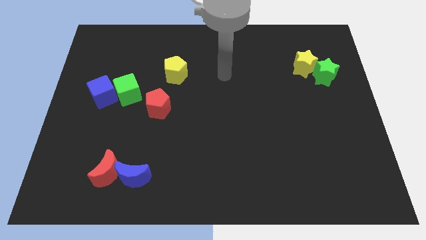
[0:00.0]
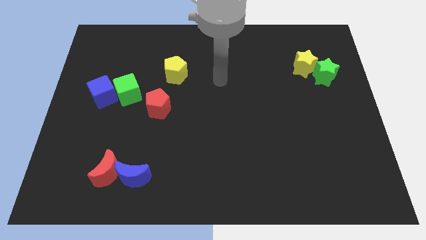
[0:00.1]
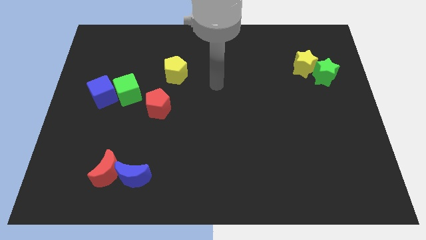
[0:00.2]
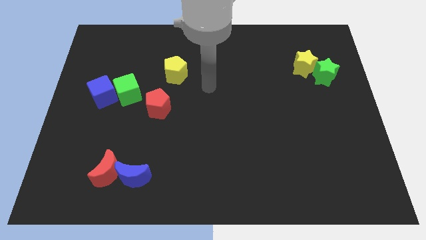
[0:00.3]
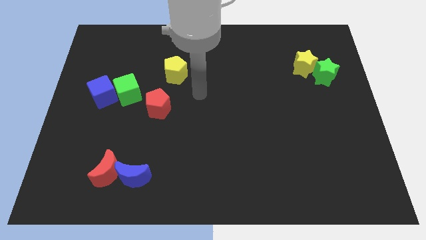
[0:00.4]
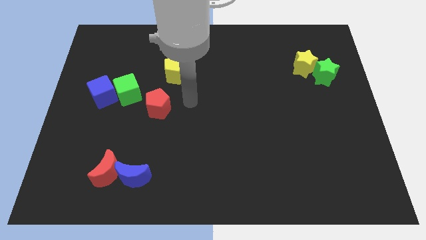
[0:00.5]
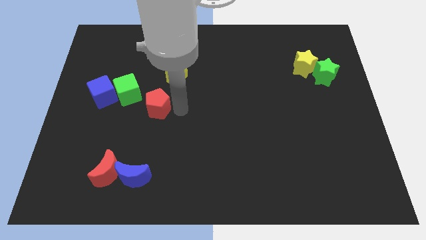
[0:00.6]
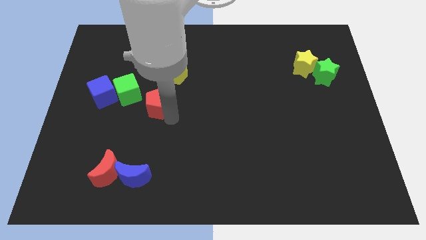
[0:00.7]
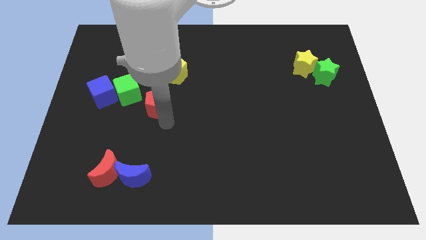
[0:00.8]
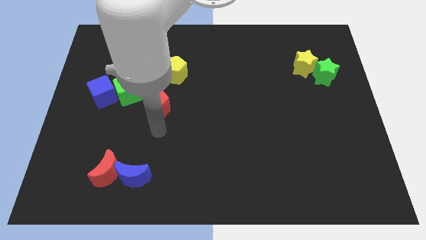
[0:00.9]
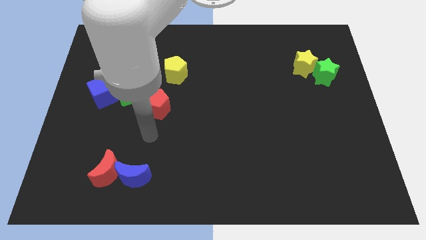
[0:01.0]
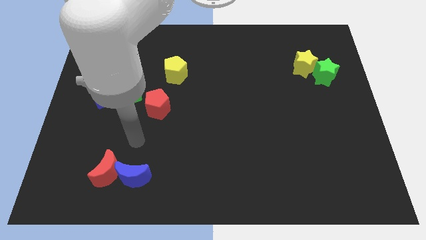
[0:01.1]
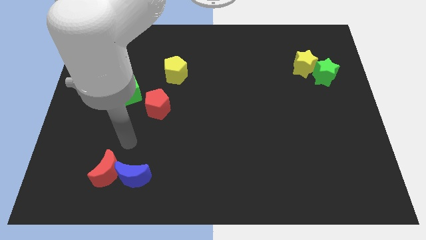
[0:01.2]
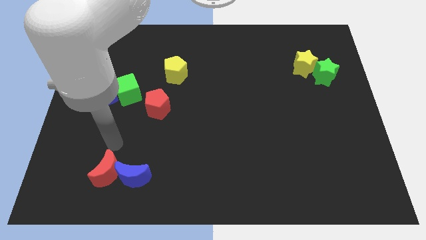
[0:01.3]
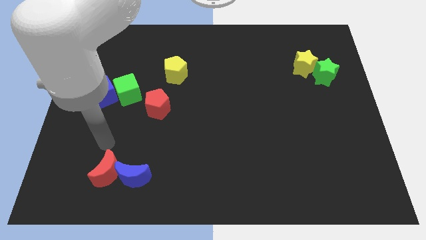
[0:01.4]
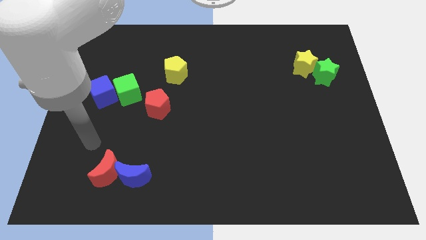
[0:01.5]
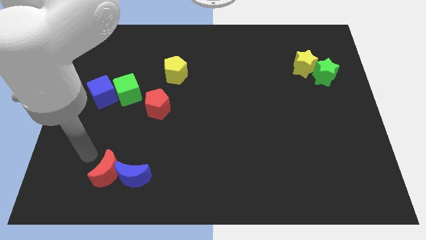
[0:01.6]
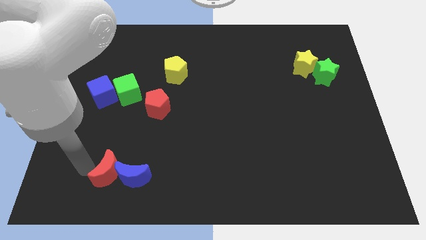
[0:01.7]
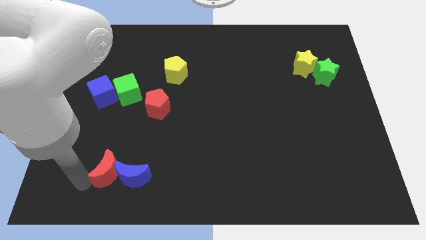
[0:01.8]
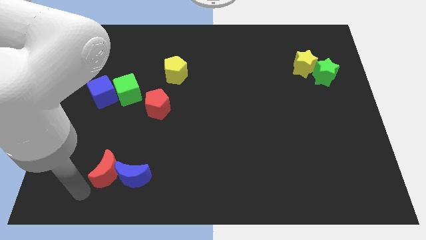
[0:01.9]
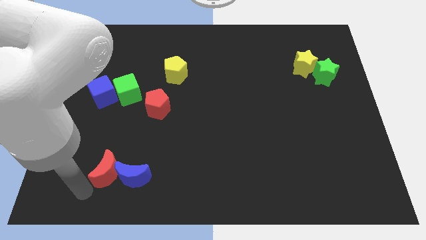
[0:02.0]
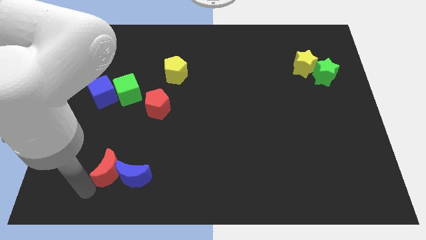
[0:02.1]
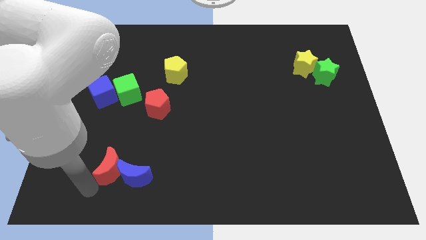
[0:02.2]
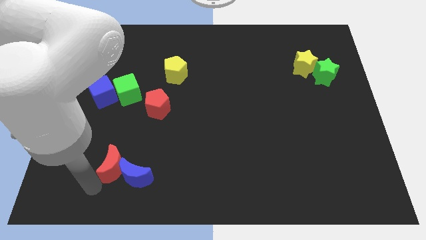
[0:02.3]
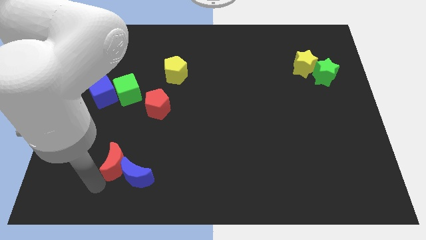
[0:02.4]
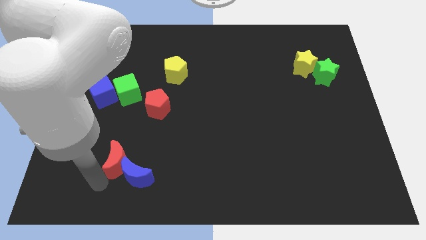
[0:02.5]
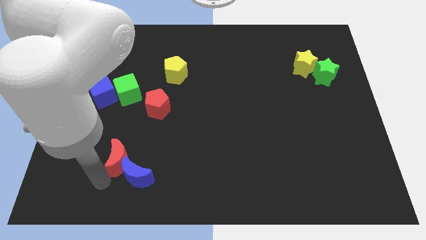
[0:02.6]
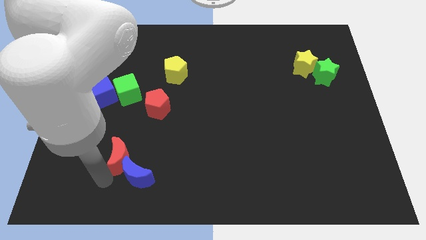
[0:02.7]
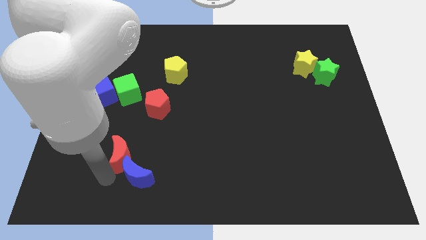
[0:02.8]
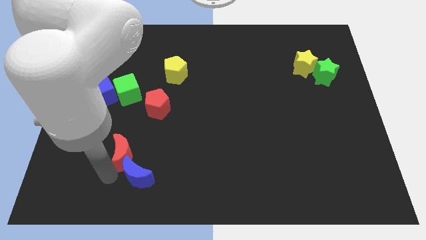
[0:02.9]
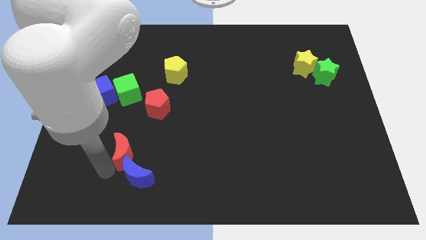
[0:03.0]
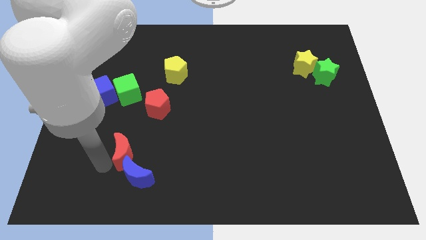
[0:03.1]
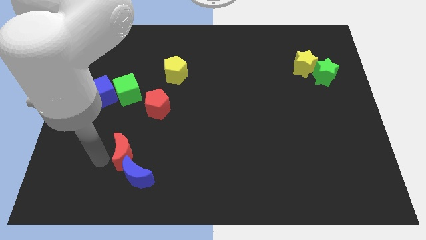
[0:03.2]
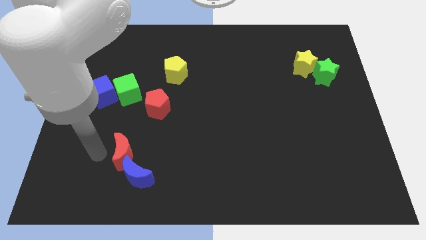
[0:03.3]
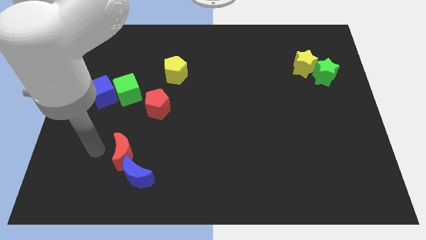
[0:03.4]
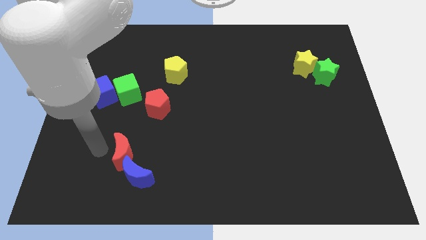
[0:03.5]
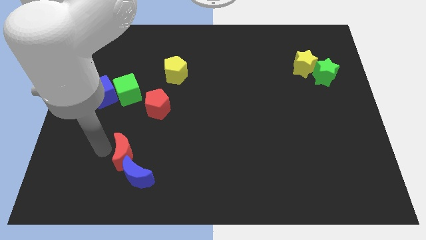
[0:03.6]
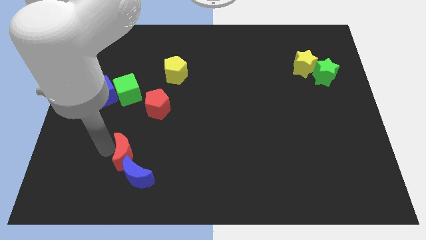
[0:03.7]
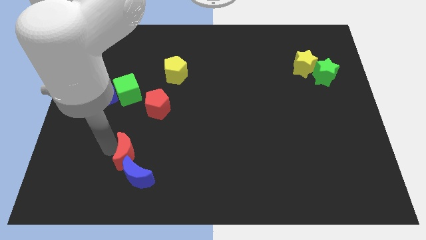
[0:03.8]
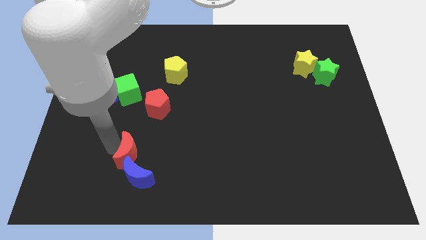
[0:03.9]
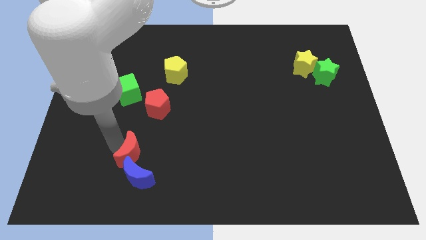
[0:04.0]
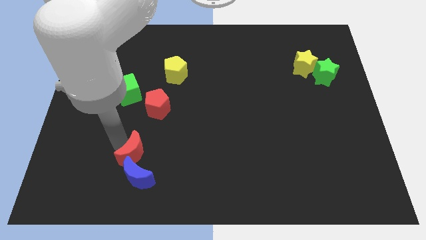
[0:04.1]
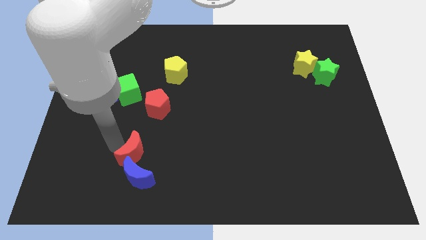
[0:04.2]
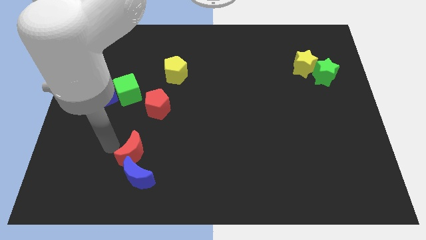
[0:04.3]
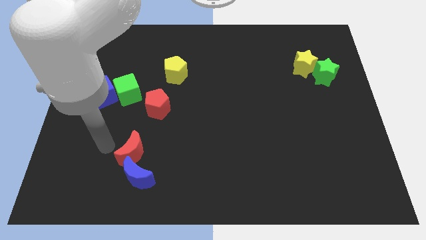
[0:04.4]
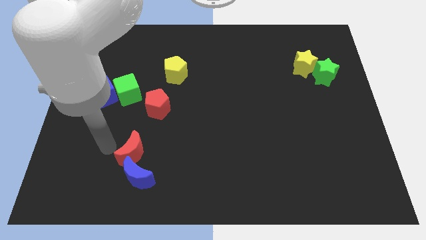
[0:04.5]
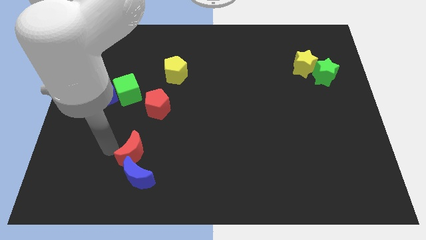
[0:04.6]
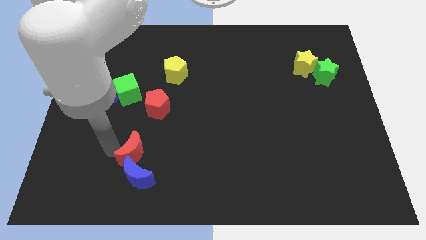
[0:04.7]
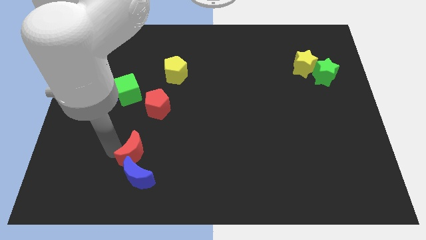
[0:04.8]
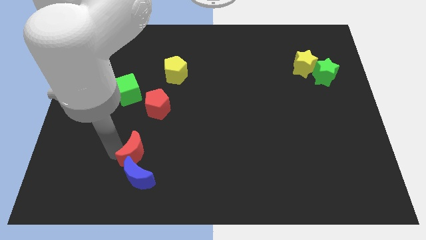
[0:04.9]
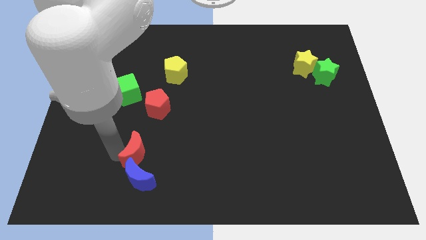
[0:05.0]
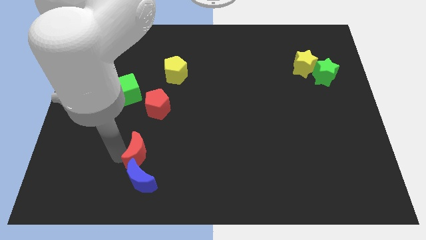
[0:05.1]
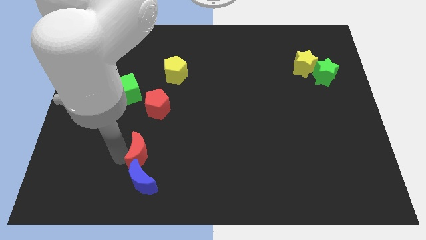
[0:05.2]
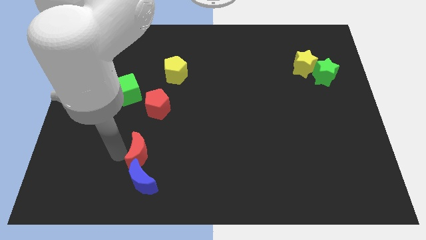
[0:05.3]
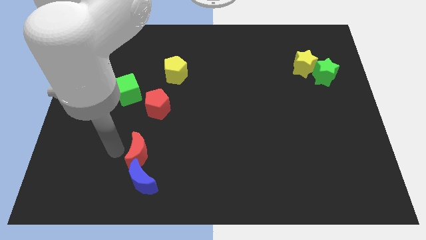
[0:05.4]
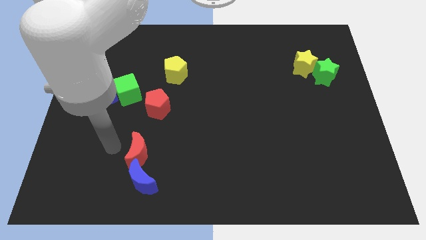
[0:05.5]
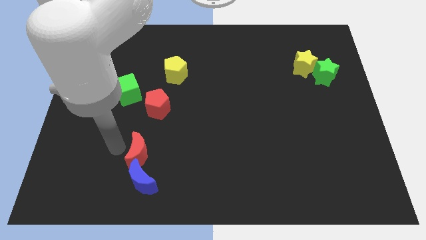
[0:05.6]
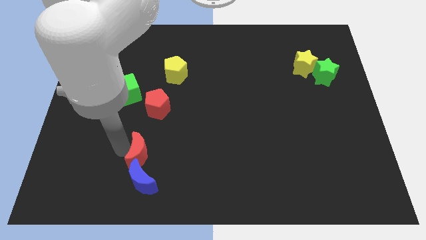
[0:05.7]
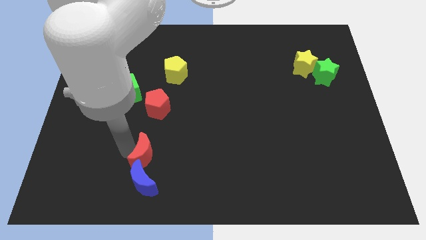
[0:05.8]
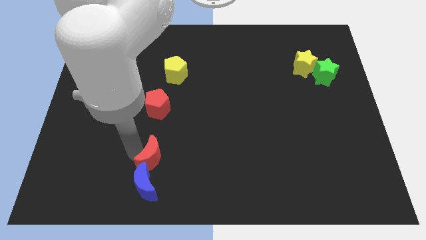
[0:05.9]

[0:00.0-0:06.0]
slightly push the red moon to the right

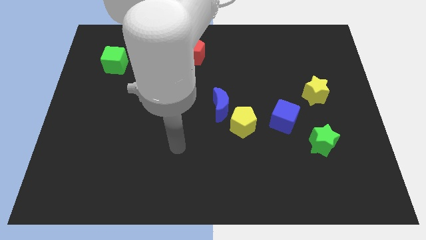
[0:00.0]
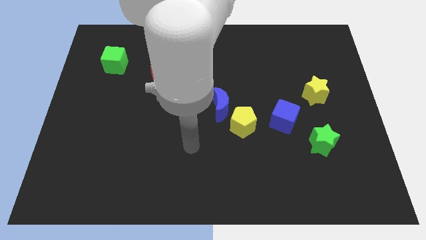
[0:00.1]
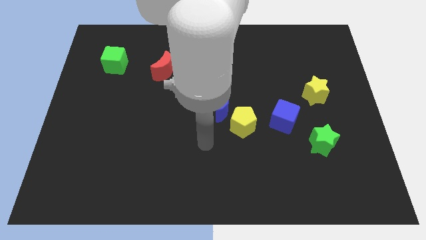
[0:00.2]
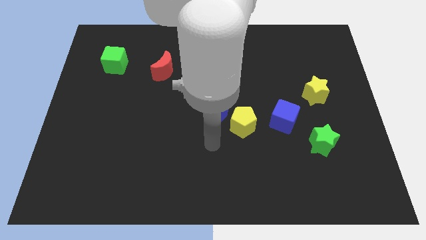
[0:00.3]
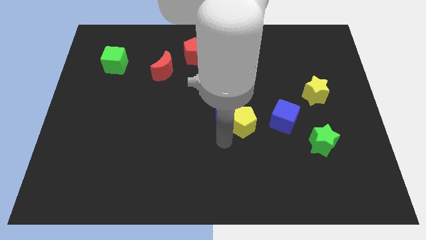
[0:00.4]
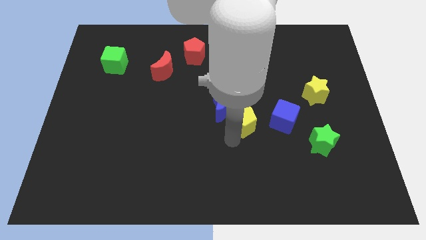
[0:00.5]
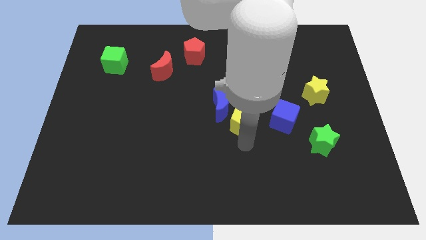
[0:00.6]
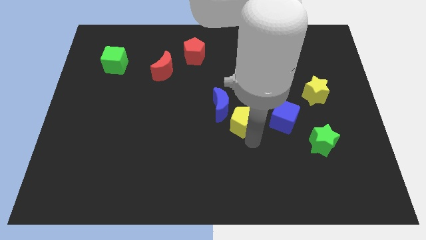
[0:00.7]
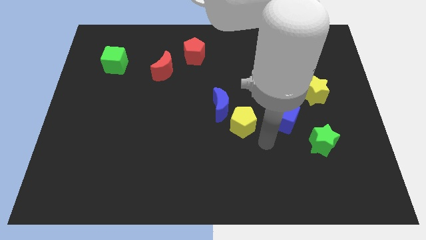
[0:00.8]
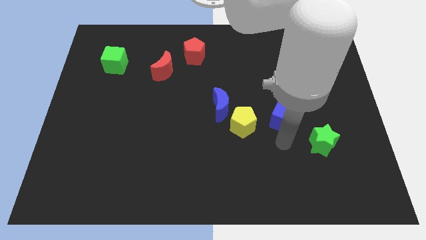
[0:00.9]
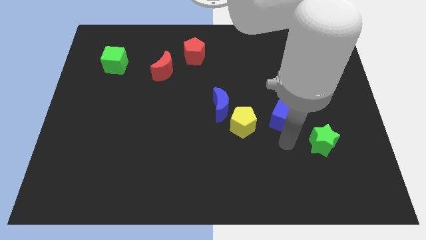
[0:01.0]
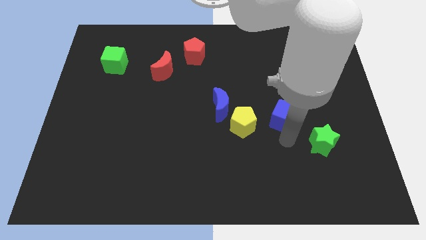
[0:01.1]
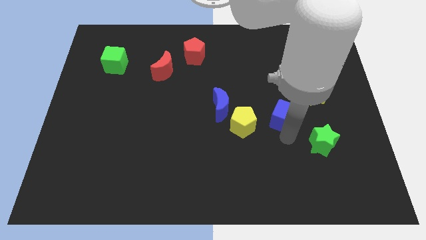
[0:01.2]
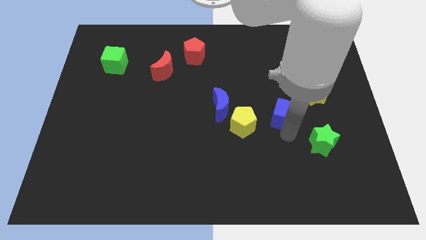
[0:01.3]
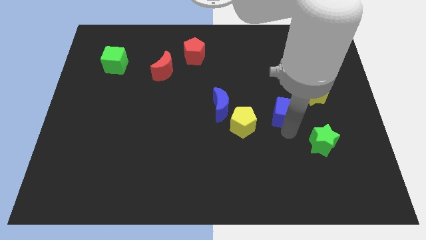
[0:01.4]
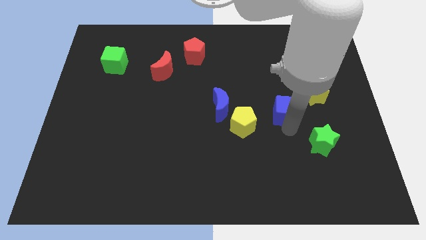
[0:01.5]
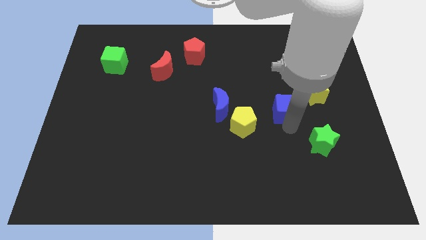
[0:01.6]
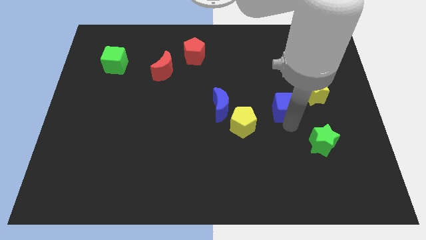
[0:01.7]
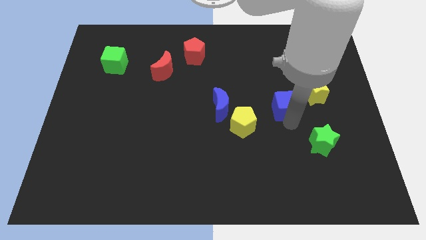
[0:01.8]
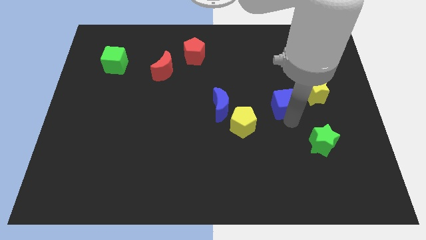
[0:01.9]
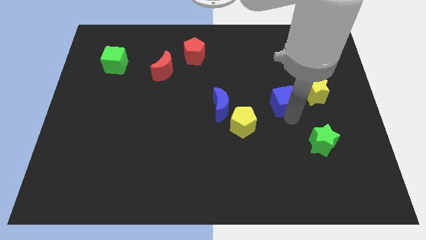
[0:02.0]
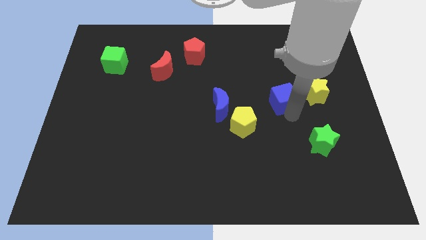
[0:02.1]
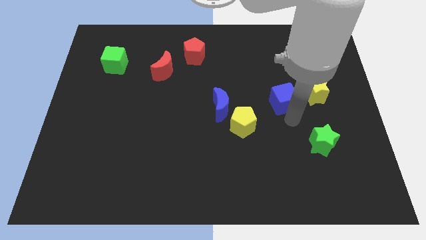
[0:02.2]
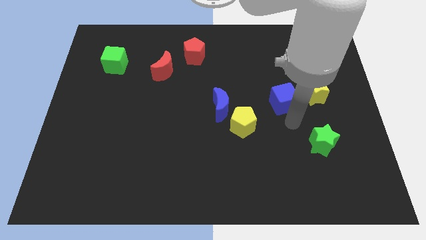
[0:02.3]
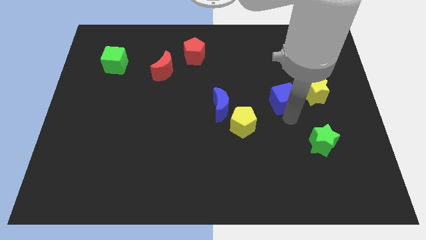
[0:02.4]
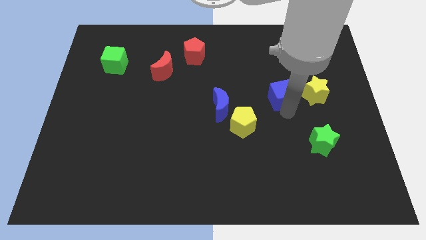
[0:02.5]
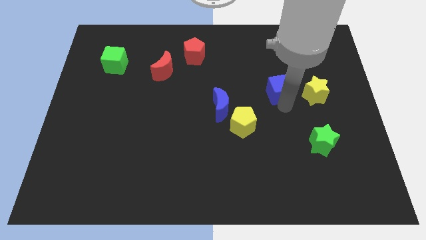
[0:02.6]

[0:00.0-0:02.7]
push the blue cube a little upwards
